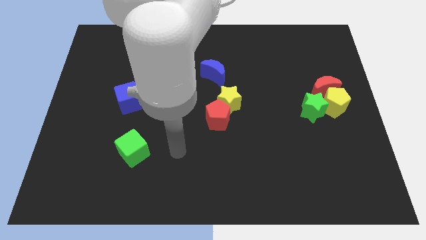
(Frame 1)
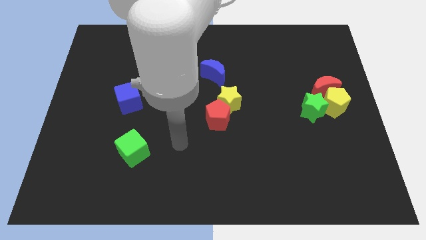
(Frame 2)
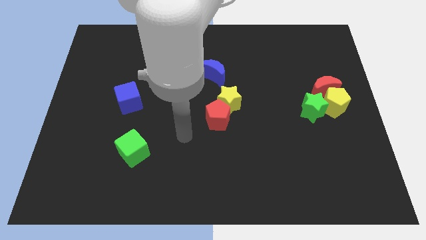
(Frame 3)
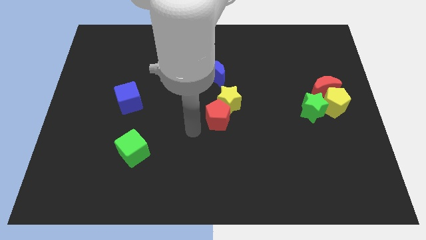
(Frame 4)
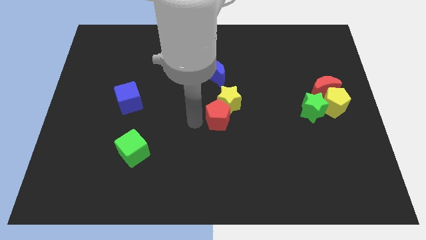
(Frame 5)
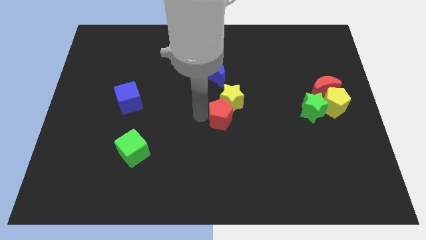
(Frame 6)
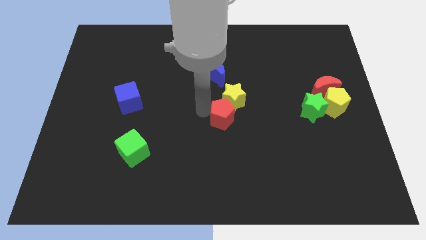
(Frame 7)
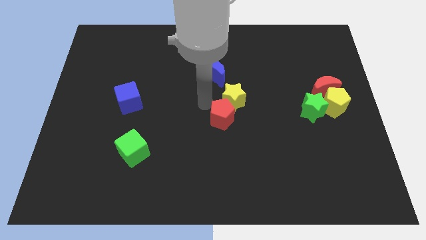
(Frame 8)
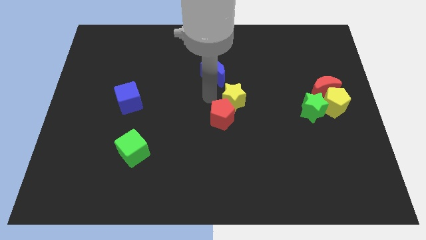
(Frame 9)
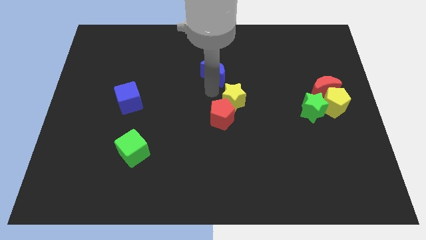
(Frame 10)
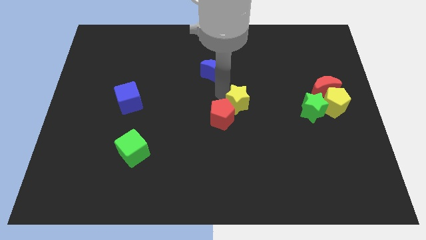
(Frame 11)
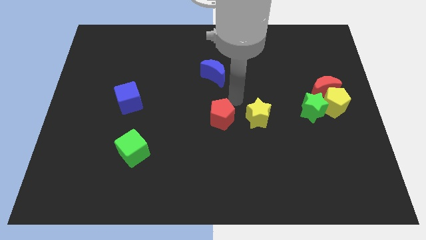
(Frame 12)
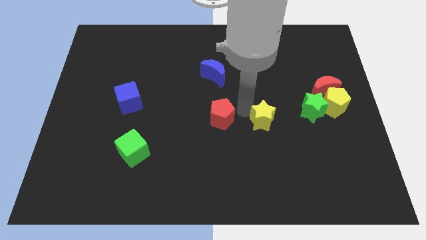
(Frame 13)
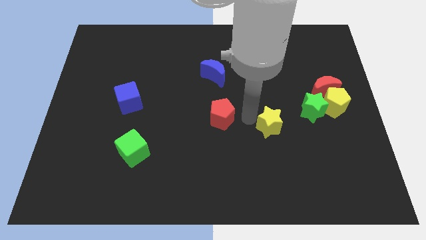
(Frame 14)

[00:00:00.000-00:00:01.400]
move the red pentagon away from the yellow star

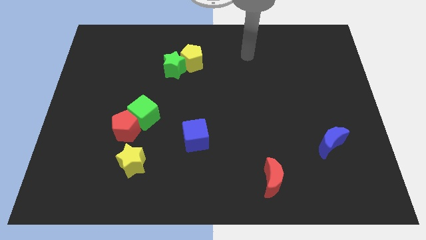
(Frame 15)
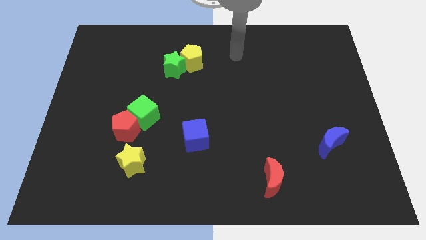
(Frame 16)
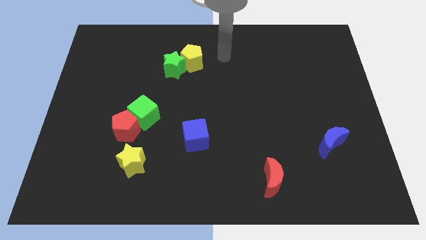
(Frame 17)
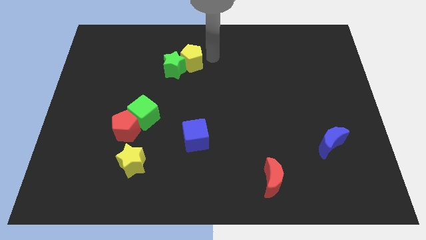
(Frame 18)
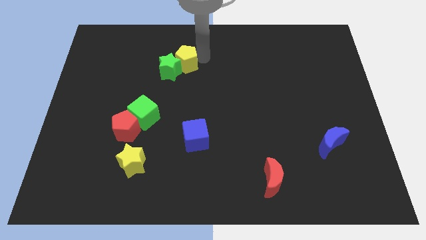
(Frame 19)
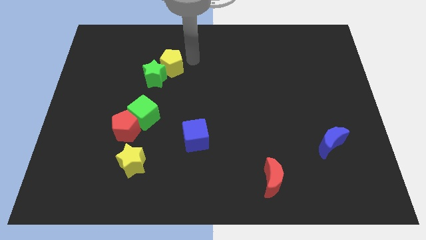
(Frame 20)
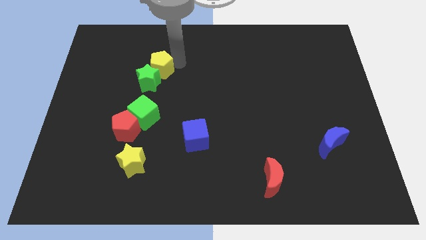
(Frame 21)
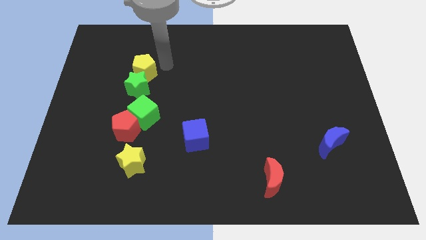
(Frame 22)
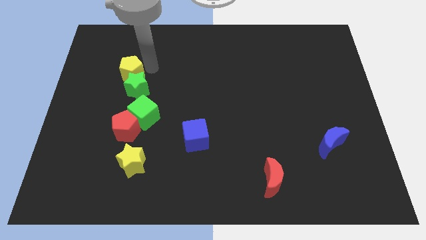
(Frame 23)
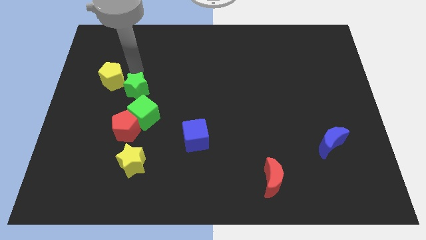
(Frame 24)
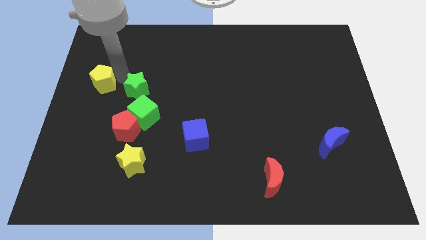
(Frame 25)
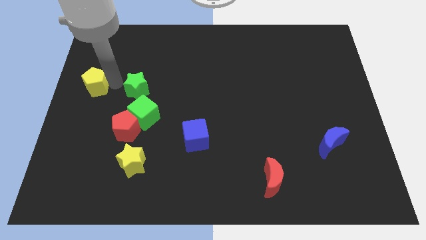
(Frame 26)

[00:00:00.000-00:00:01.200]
pull the green star apart from the yellow pentagon

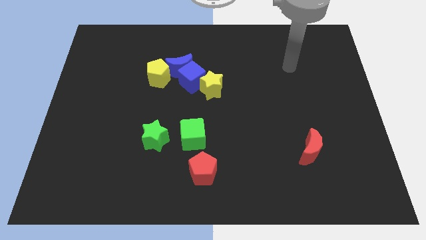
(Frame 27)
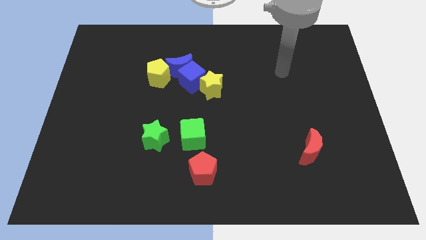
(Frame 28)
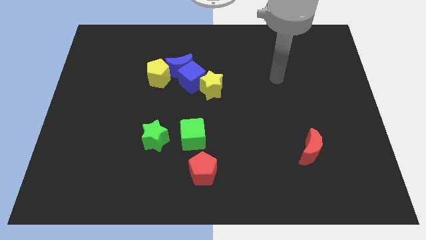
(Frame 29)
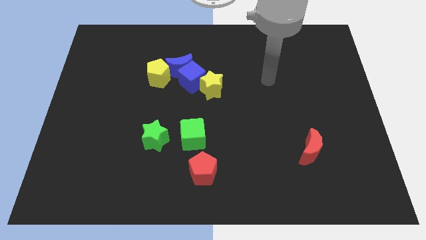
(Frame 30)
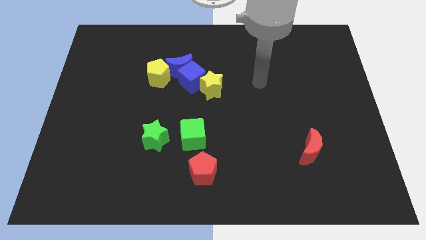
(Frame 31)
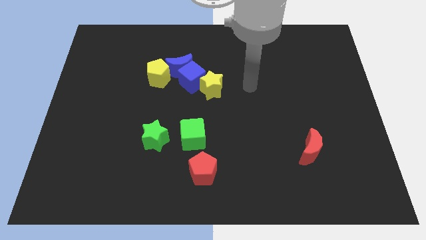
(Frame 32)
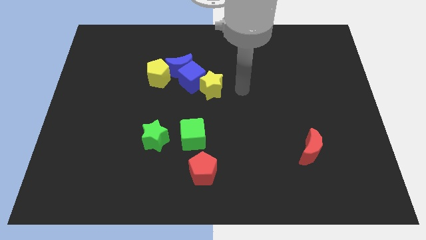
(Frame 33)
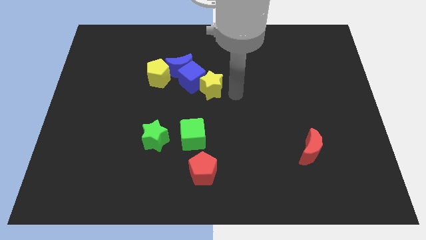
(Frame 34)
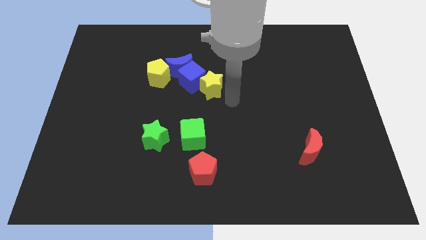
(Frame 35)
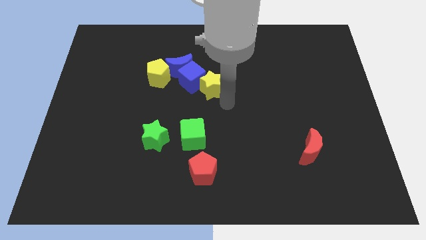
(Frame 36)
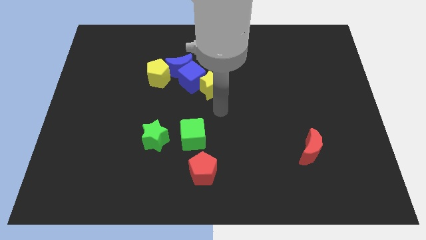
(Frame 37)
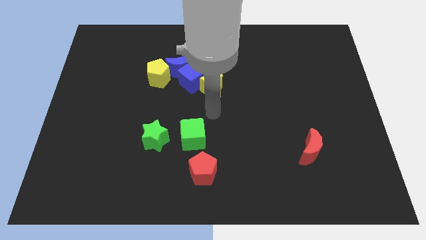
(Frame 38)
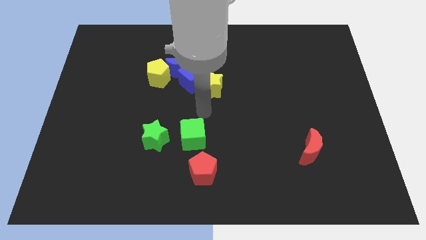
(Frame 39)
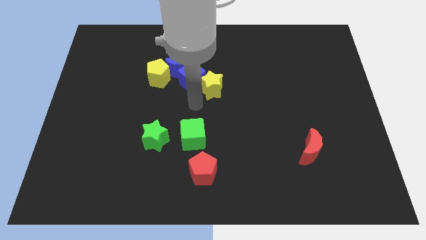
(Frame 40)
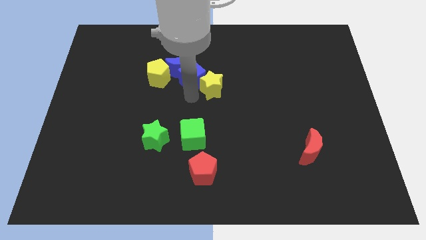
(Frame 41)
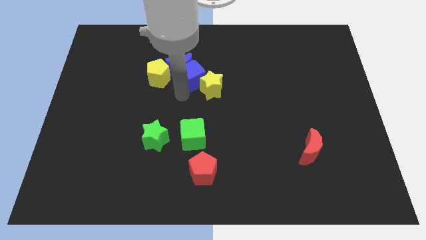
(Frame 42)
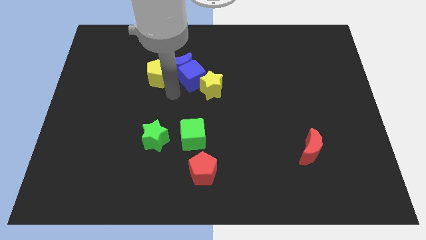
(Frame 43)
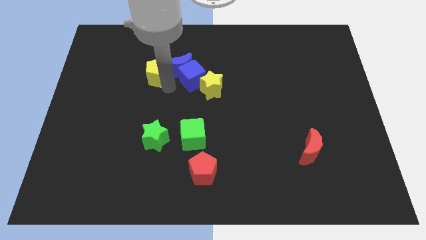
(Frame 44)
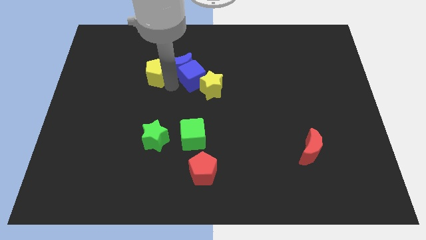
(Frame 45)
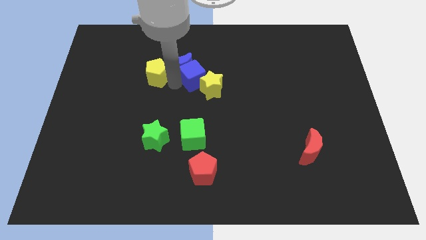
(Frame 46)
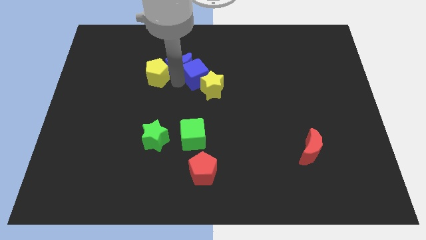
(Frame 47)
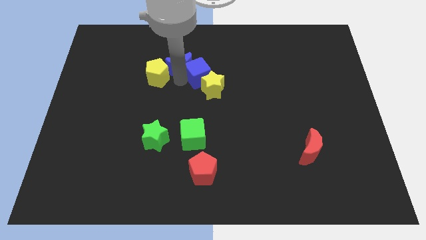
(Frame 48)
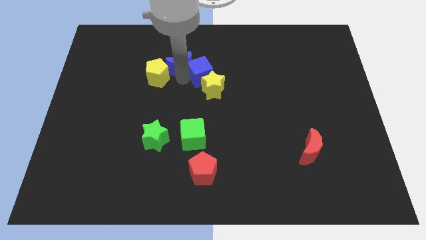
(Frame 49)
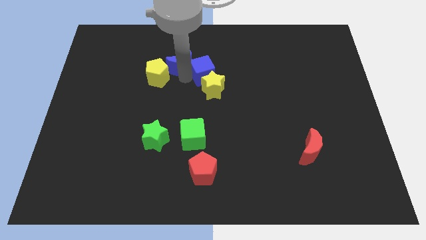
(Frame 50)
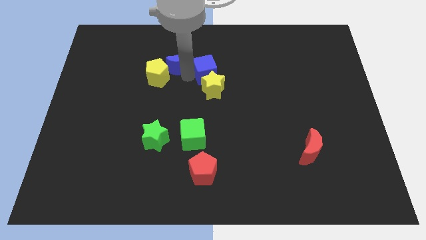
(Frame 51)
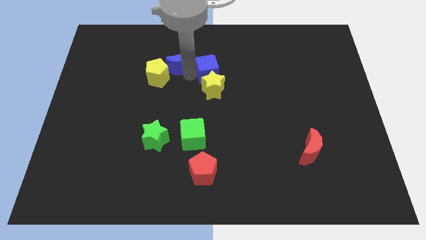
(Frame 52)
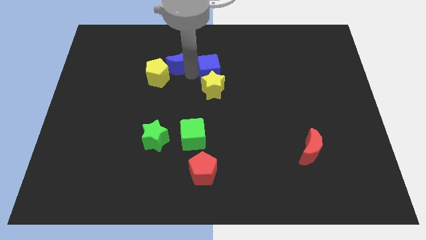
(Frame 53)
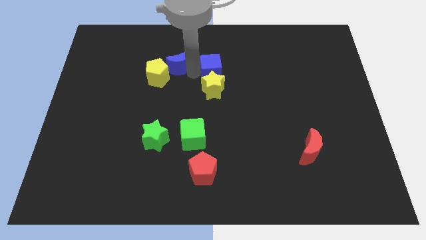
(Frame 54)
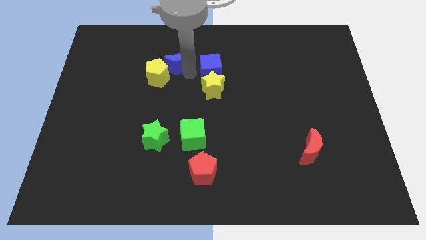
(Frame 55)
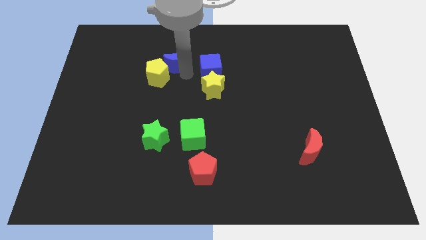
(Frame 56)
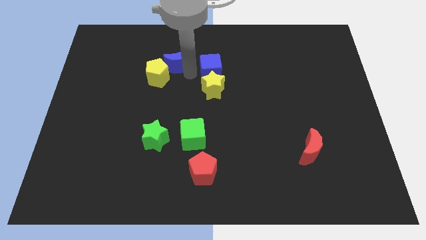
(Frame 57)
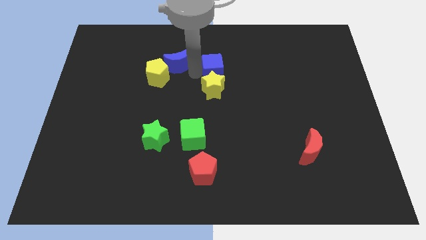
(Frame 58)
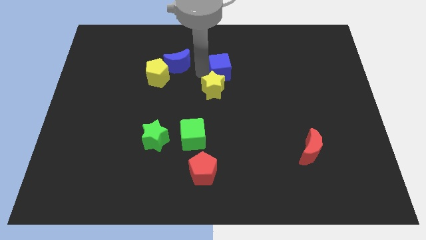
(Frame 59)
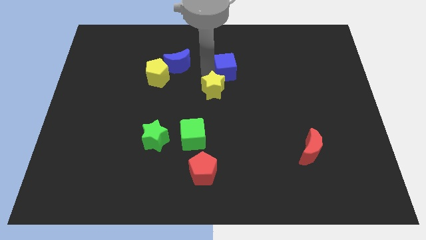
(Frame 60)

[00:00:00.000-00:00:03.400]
separate the blue cube from the clump

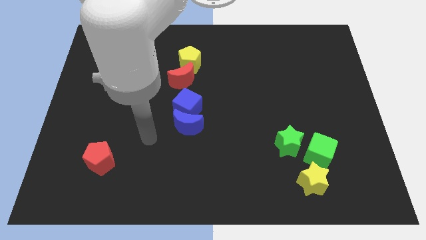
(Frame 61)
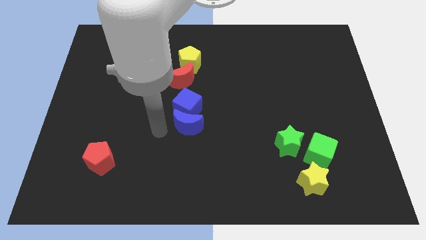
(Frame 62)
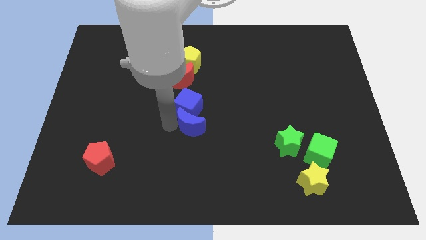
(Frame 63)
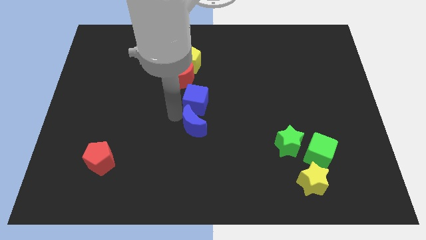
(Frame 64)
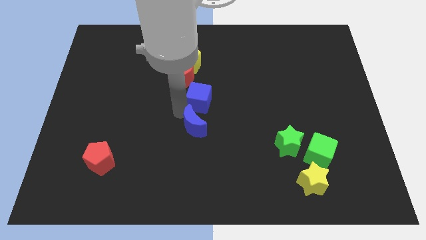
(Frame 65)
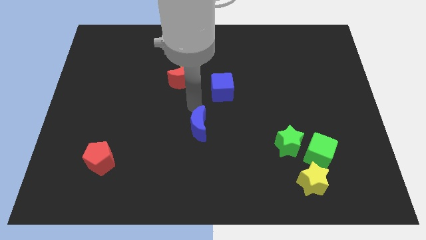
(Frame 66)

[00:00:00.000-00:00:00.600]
pull the blue moon apart from the blue cube

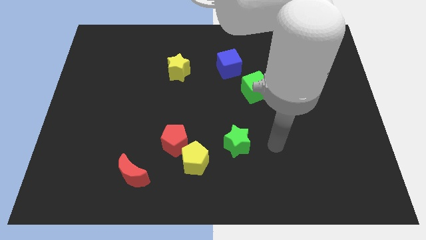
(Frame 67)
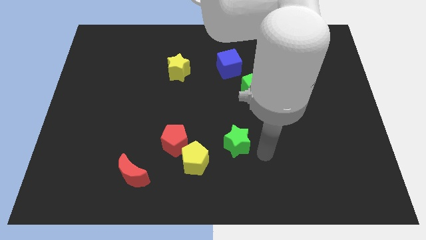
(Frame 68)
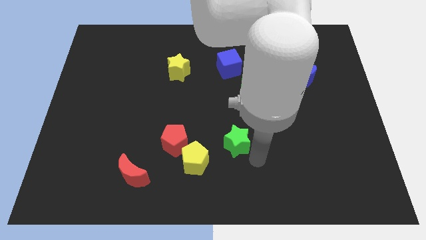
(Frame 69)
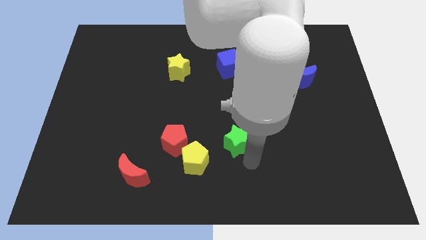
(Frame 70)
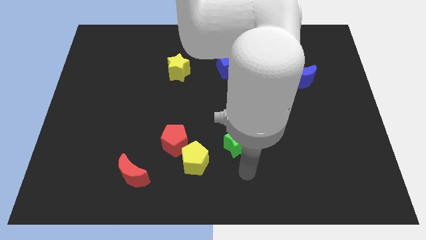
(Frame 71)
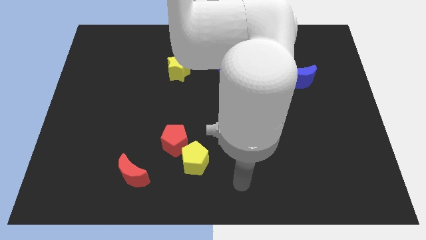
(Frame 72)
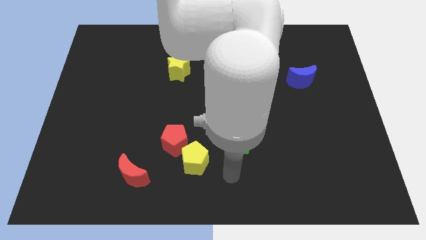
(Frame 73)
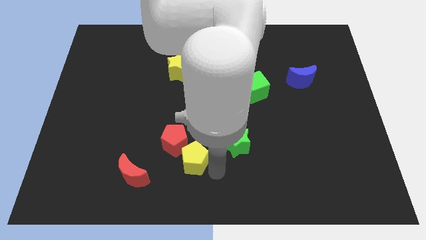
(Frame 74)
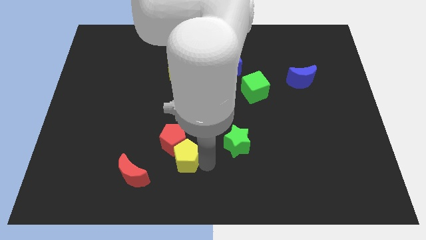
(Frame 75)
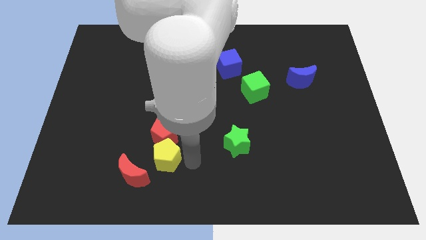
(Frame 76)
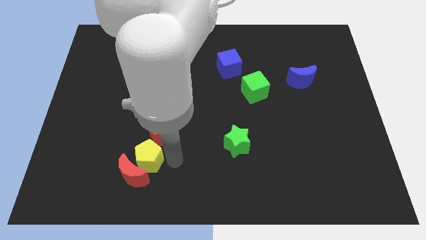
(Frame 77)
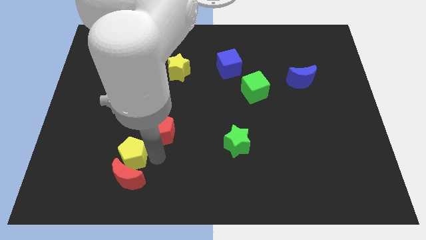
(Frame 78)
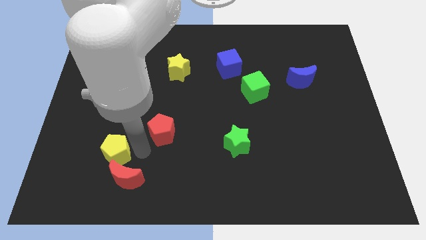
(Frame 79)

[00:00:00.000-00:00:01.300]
separate the red pentagon from the yellow pentagon

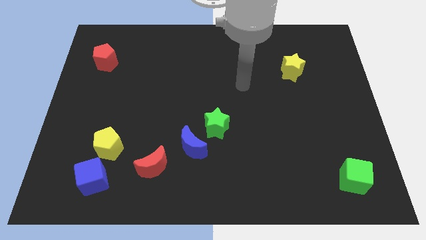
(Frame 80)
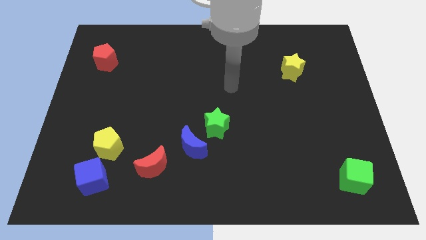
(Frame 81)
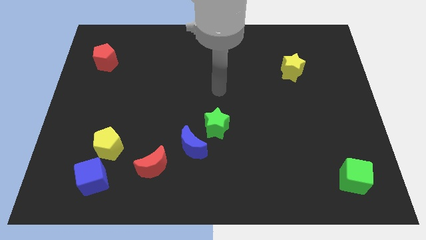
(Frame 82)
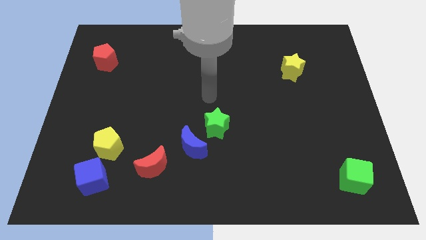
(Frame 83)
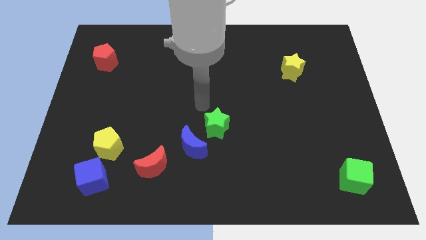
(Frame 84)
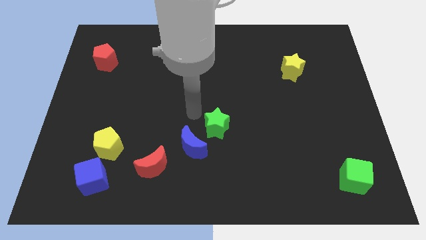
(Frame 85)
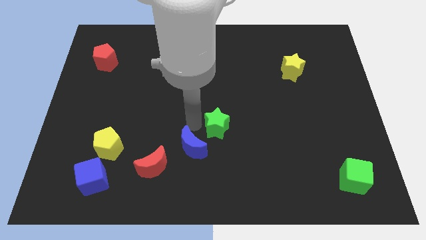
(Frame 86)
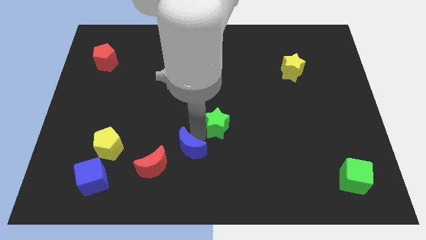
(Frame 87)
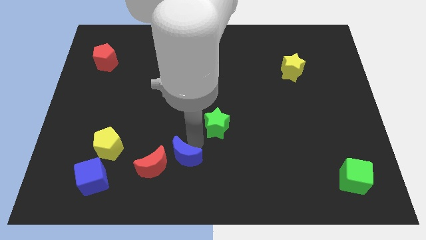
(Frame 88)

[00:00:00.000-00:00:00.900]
move the green star away from the blue moon

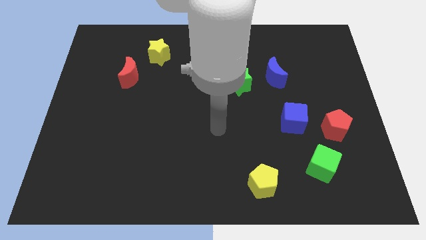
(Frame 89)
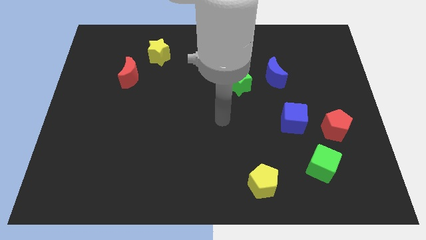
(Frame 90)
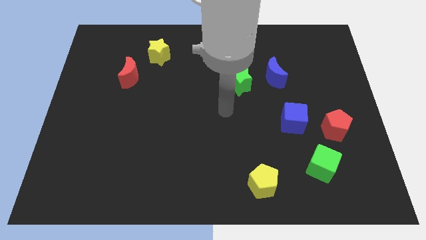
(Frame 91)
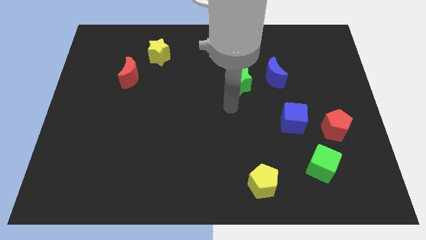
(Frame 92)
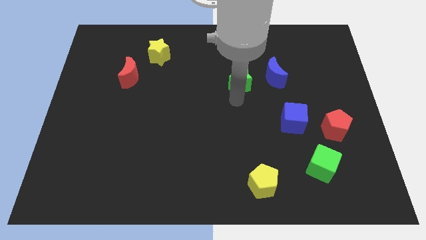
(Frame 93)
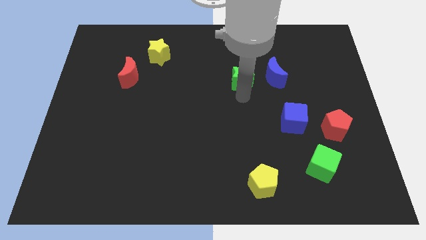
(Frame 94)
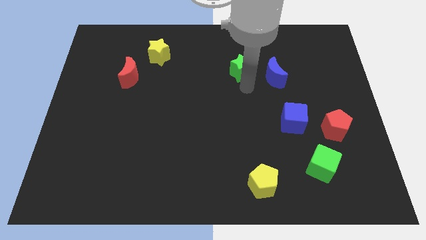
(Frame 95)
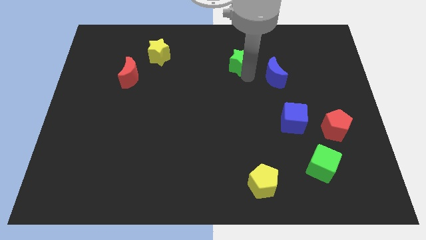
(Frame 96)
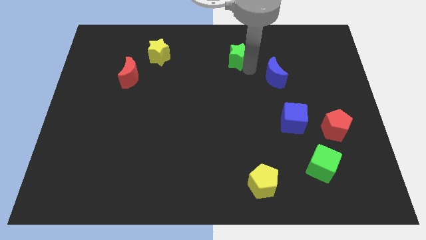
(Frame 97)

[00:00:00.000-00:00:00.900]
pull the blue moon apart from the green star
